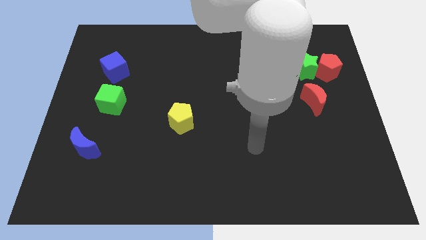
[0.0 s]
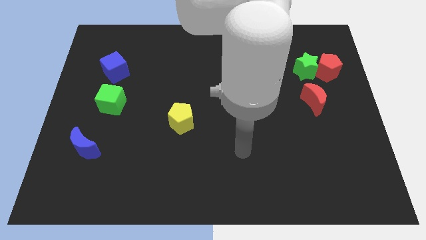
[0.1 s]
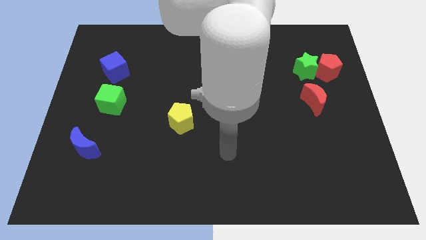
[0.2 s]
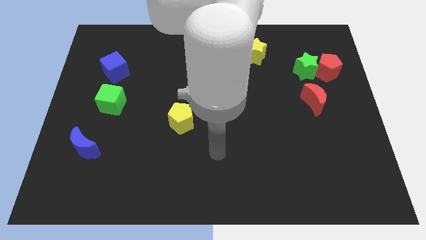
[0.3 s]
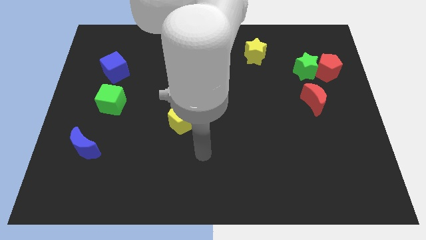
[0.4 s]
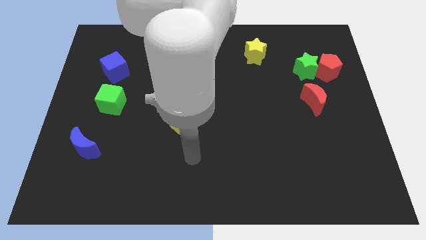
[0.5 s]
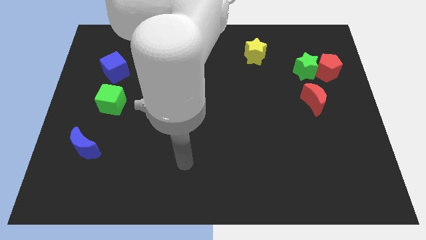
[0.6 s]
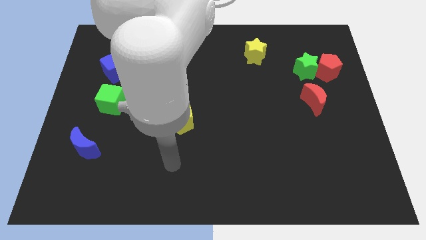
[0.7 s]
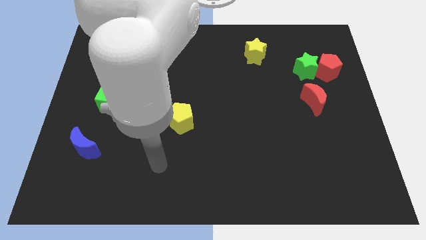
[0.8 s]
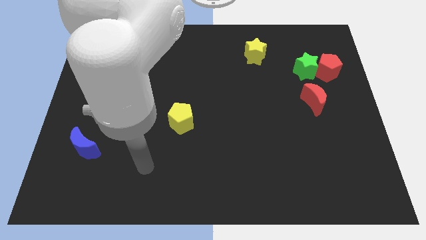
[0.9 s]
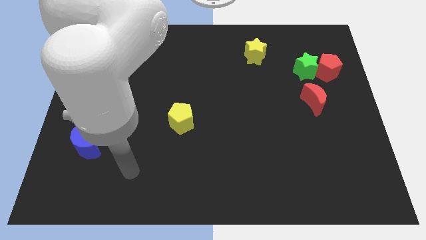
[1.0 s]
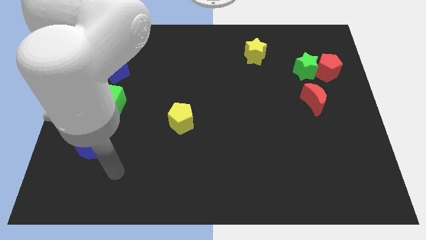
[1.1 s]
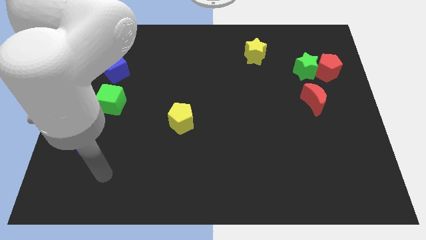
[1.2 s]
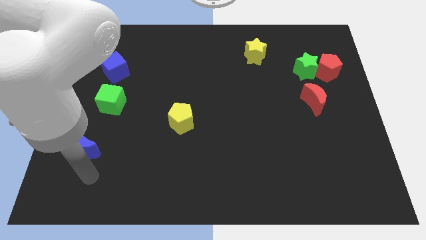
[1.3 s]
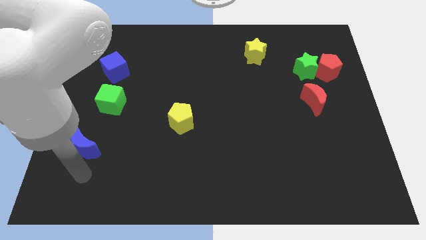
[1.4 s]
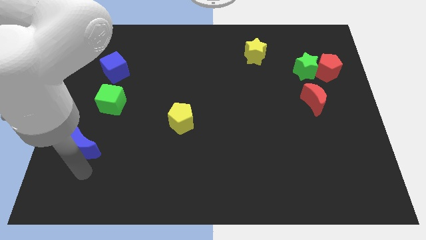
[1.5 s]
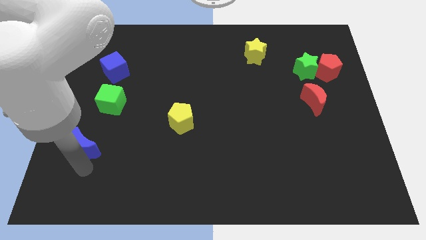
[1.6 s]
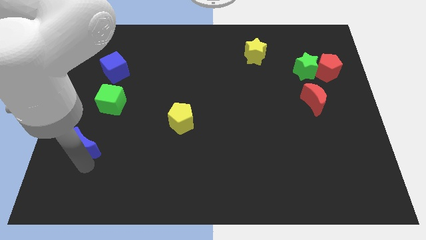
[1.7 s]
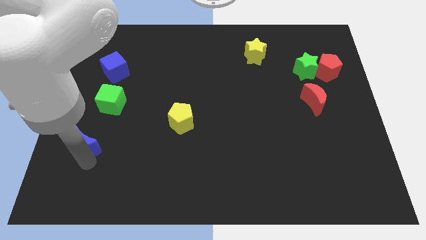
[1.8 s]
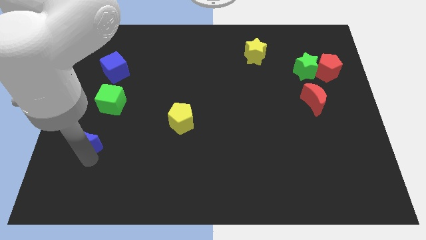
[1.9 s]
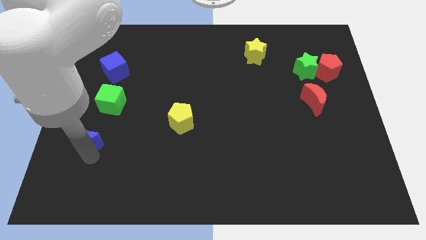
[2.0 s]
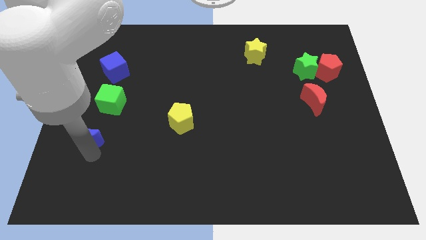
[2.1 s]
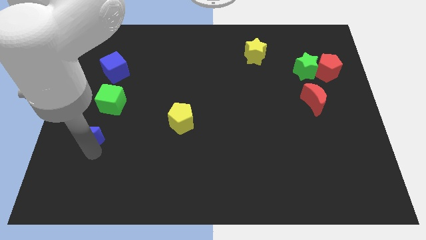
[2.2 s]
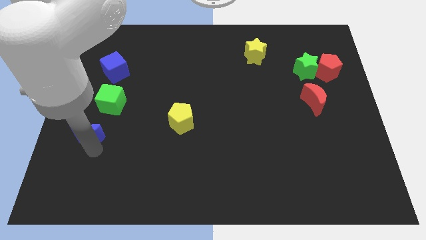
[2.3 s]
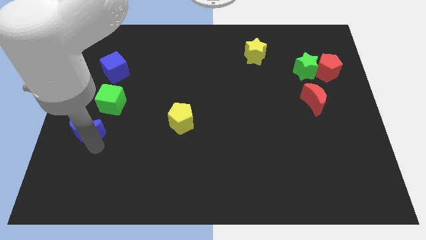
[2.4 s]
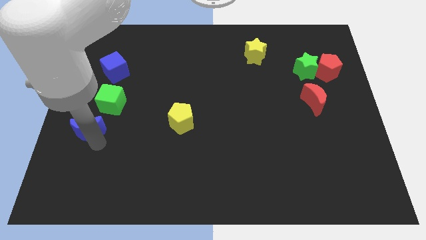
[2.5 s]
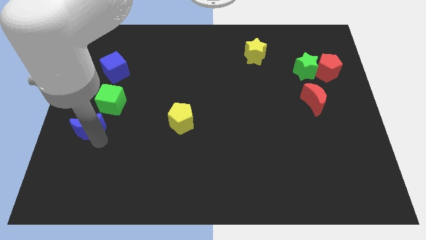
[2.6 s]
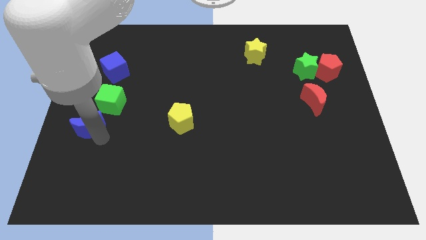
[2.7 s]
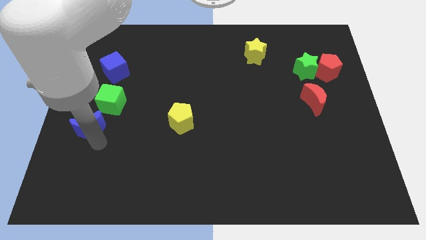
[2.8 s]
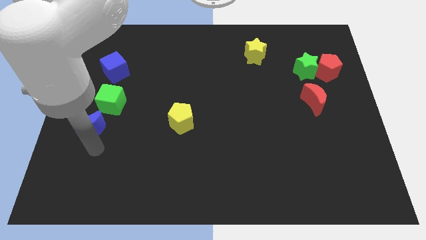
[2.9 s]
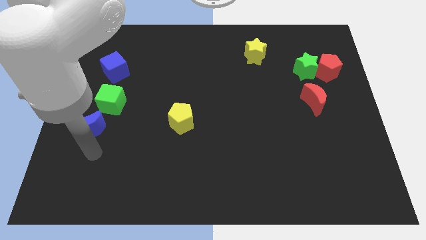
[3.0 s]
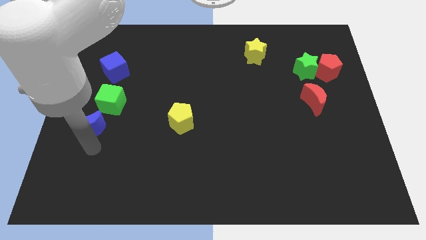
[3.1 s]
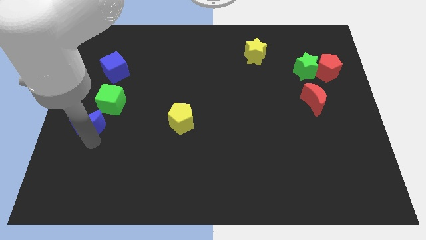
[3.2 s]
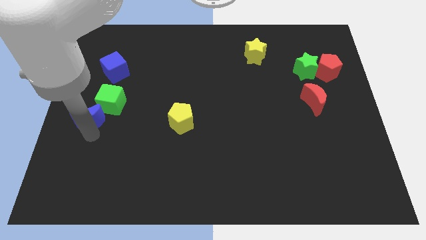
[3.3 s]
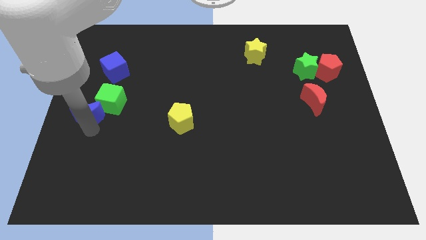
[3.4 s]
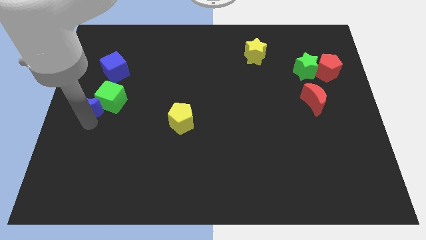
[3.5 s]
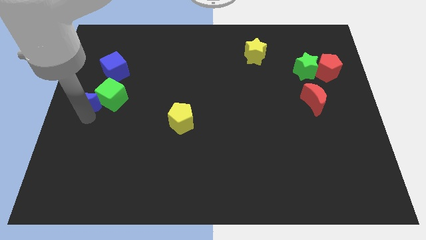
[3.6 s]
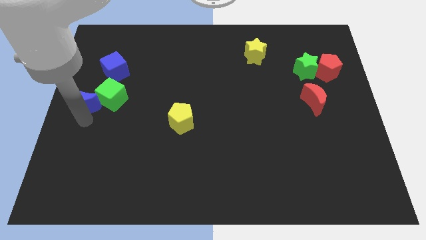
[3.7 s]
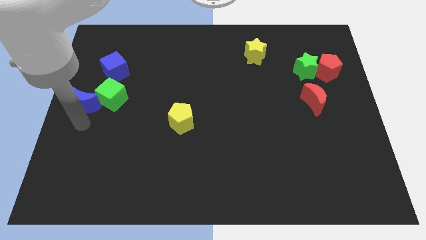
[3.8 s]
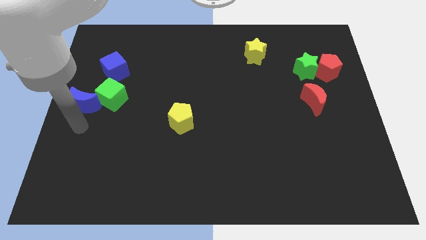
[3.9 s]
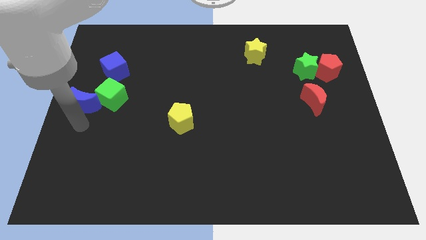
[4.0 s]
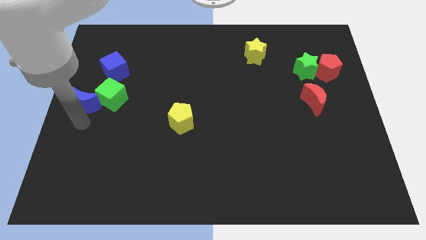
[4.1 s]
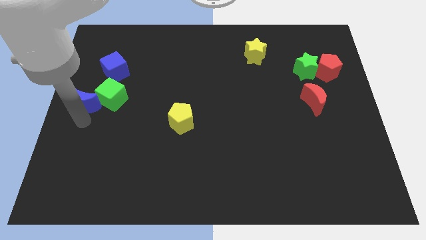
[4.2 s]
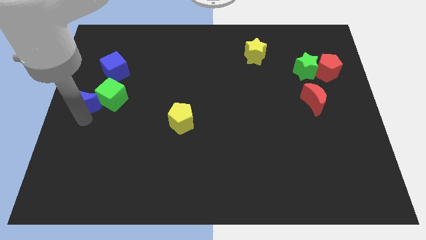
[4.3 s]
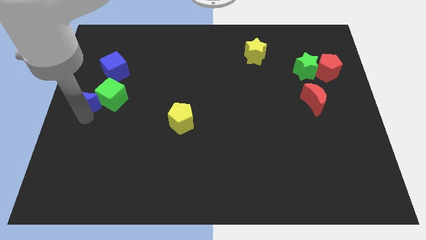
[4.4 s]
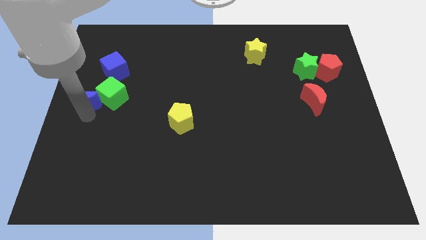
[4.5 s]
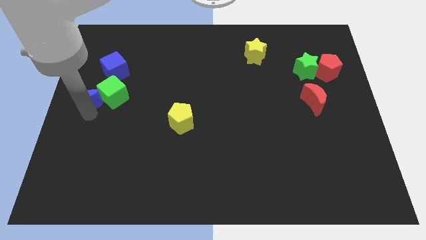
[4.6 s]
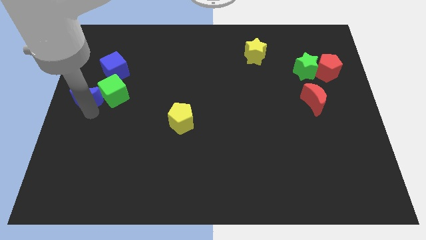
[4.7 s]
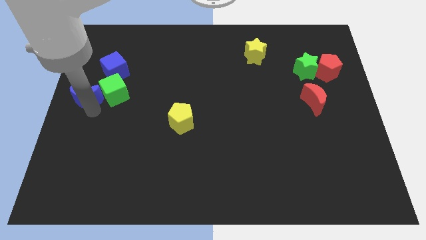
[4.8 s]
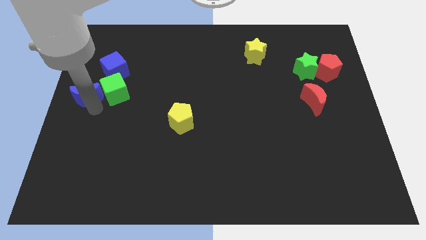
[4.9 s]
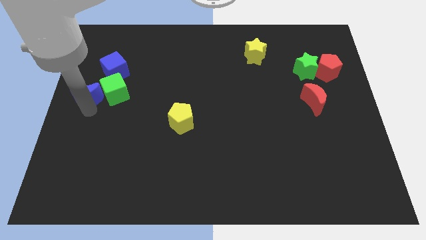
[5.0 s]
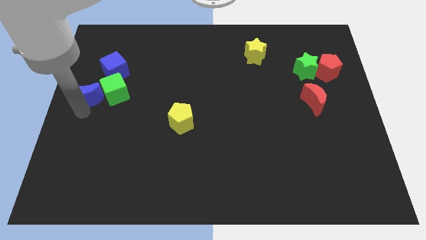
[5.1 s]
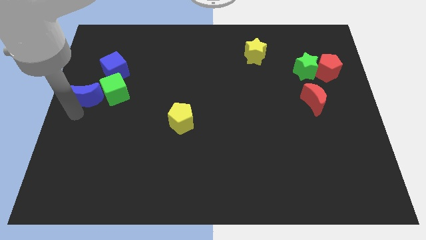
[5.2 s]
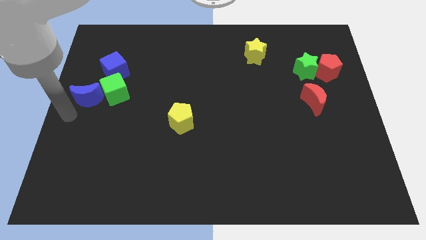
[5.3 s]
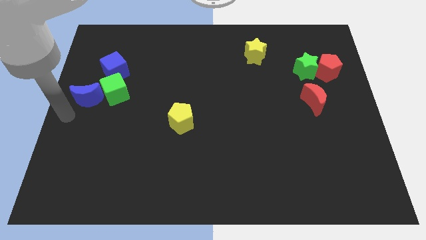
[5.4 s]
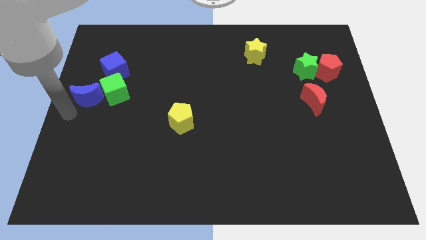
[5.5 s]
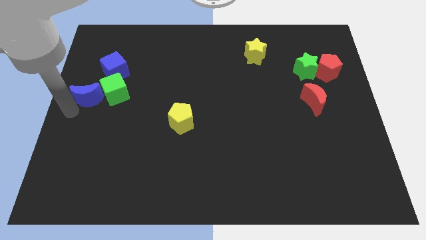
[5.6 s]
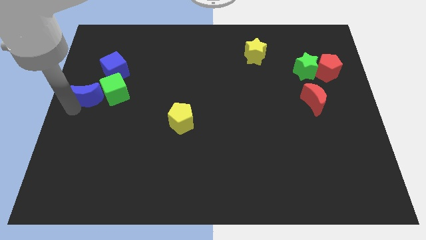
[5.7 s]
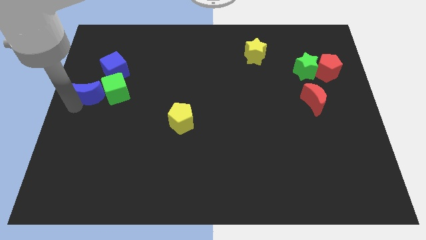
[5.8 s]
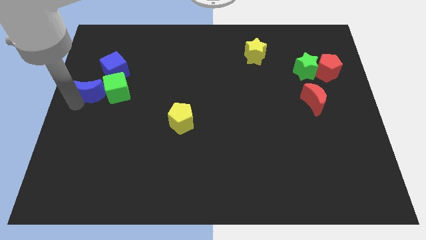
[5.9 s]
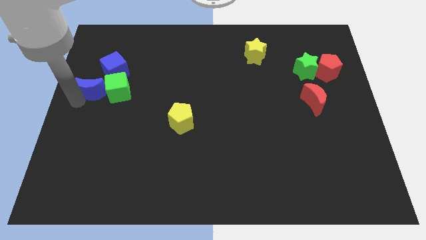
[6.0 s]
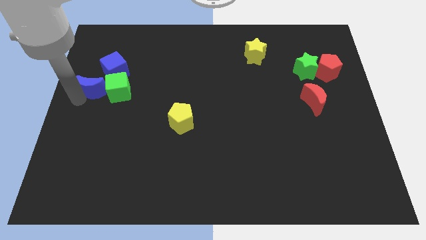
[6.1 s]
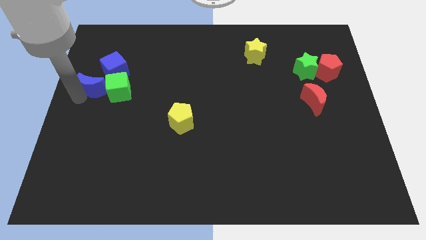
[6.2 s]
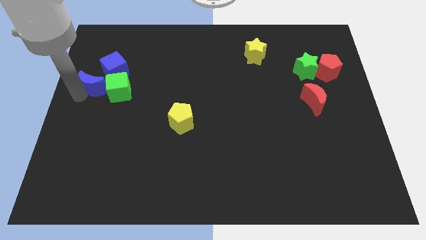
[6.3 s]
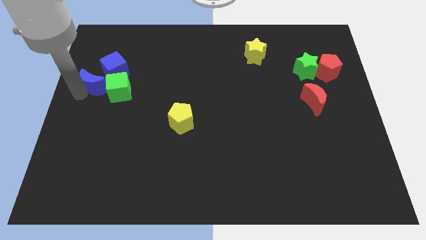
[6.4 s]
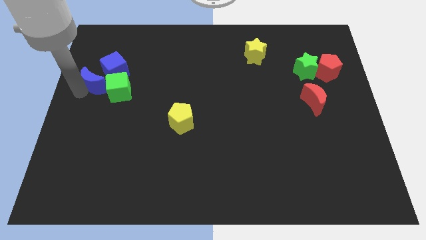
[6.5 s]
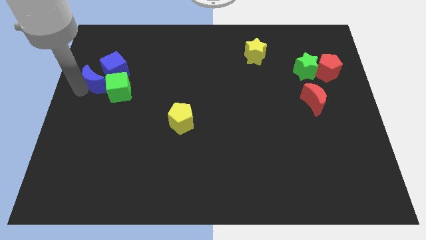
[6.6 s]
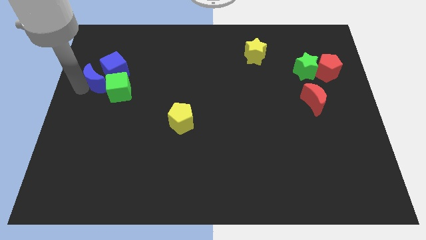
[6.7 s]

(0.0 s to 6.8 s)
move the blue moon to the blue cube
